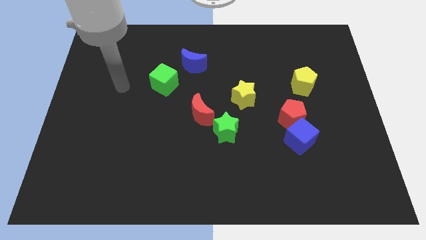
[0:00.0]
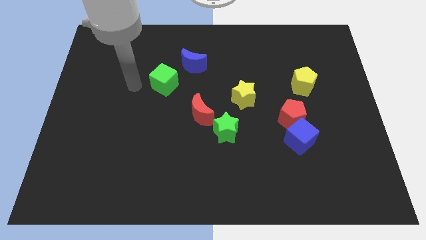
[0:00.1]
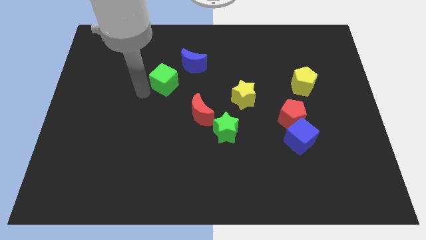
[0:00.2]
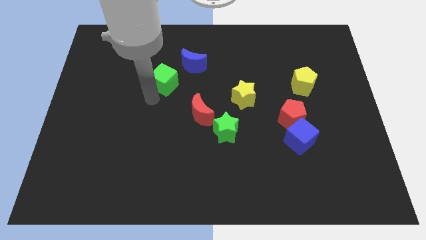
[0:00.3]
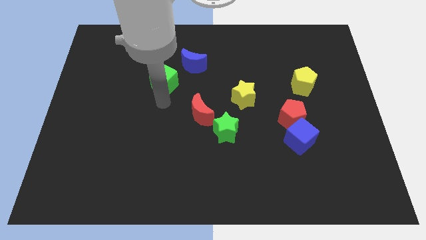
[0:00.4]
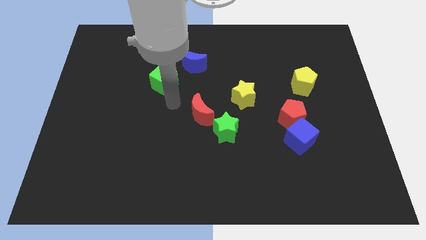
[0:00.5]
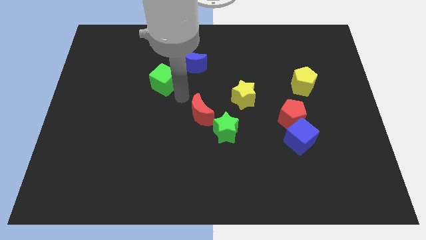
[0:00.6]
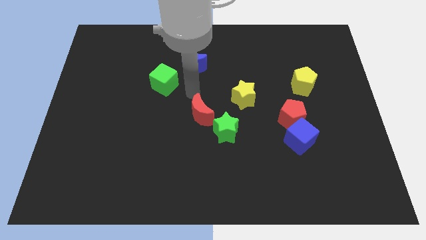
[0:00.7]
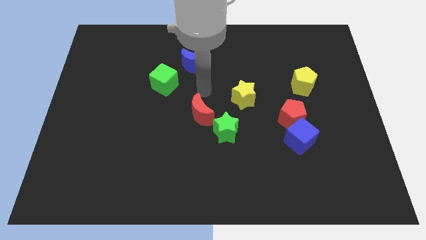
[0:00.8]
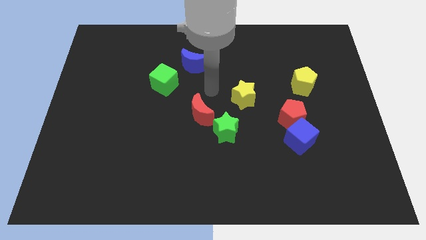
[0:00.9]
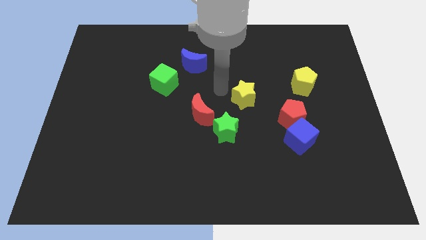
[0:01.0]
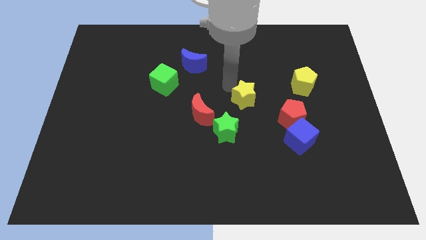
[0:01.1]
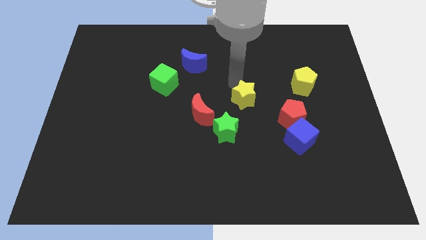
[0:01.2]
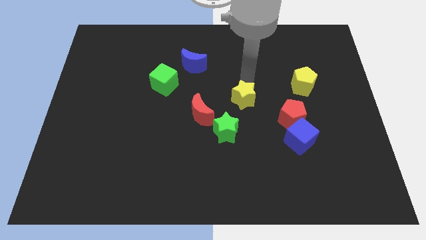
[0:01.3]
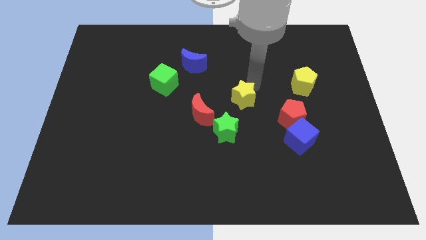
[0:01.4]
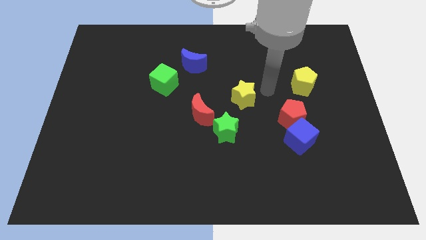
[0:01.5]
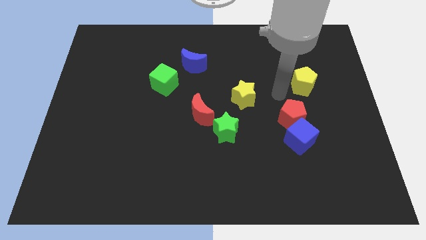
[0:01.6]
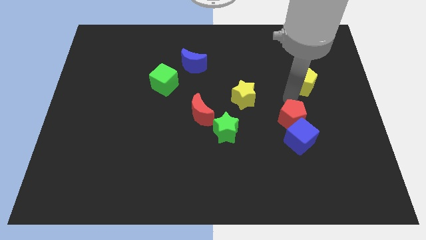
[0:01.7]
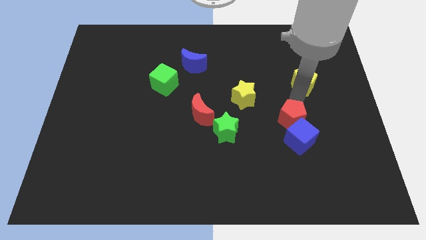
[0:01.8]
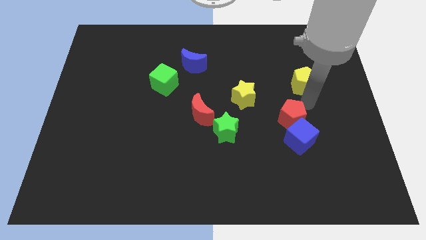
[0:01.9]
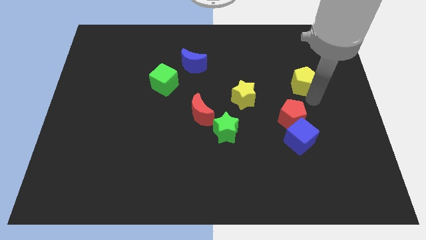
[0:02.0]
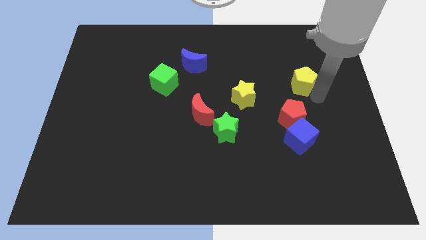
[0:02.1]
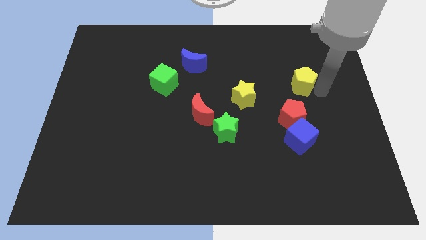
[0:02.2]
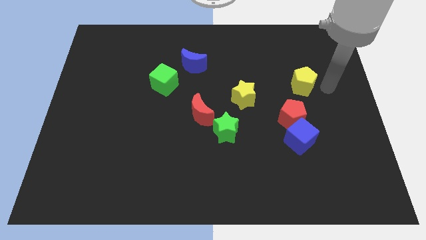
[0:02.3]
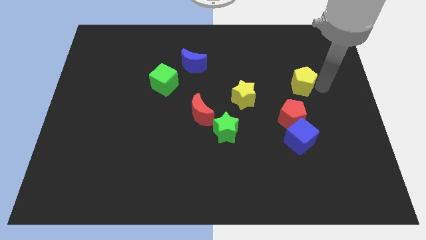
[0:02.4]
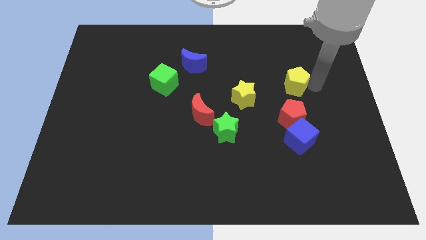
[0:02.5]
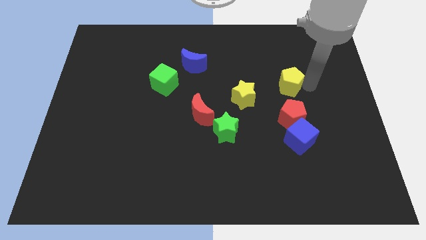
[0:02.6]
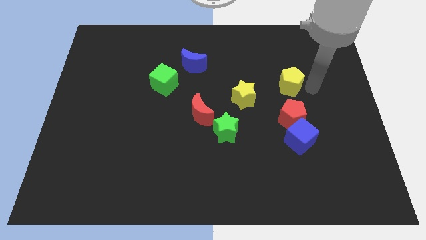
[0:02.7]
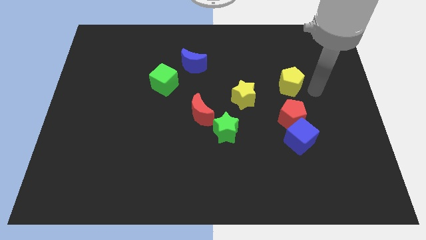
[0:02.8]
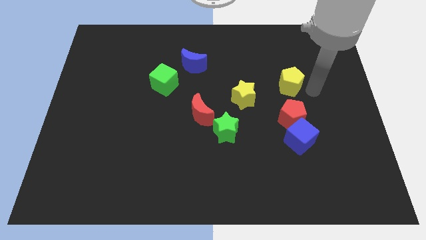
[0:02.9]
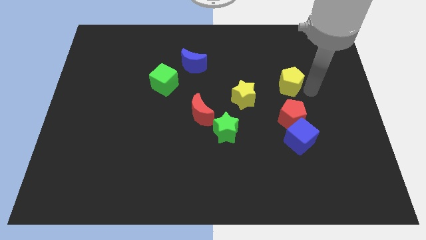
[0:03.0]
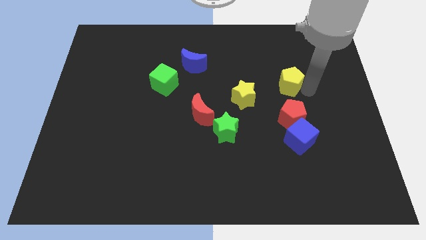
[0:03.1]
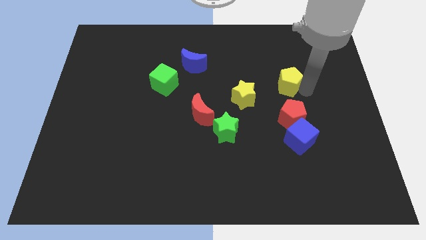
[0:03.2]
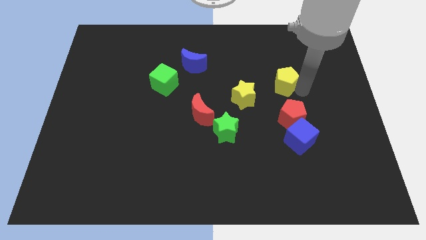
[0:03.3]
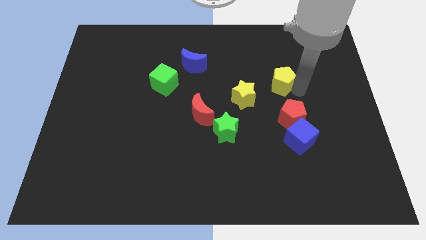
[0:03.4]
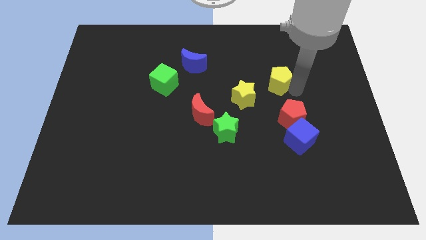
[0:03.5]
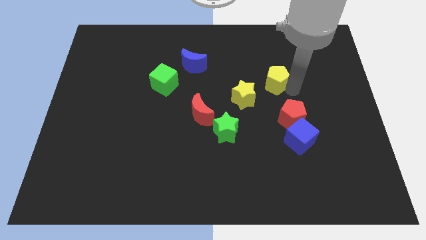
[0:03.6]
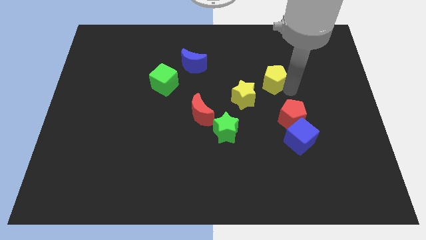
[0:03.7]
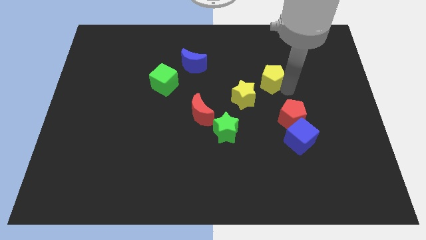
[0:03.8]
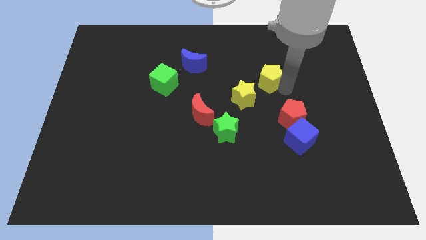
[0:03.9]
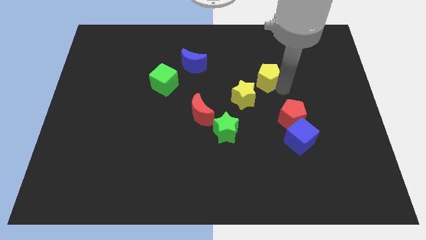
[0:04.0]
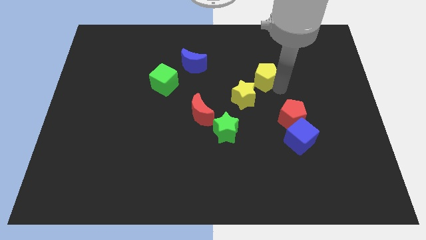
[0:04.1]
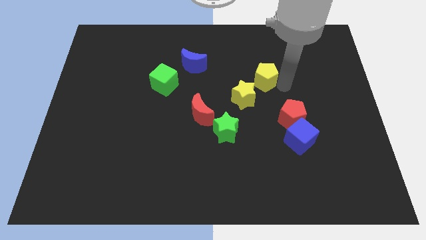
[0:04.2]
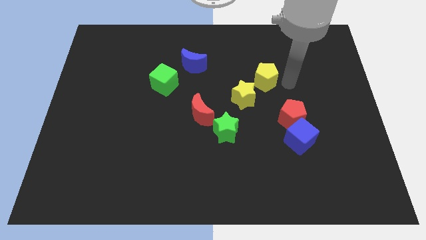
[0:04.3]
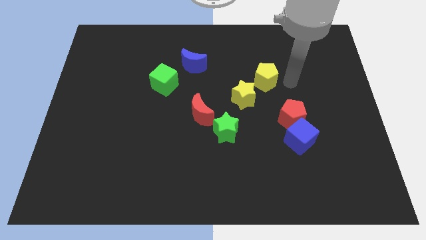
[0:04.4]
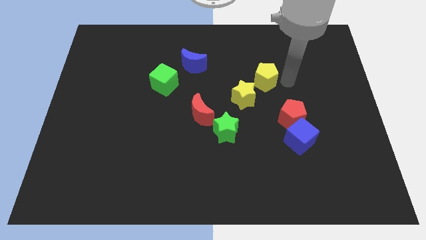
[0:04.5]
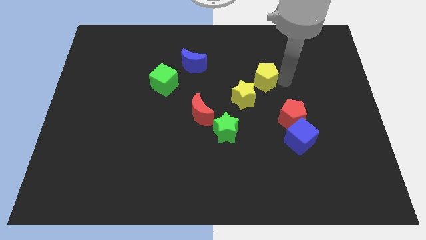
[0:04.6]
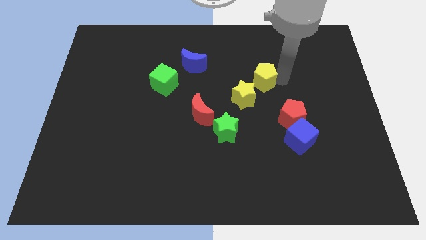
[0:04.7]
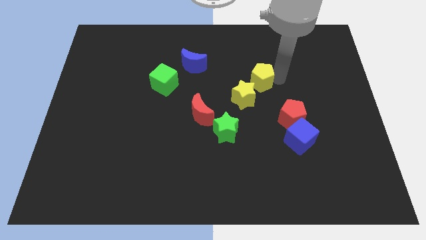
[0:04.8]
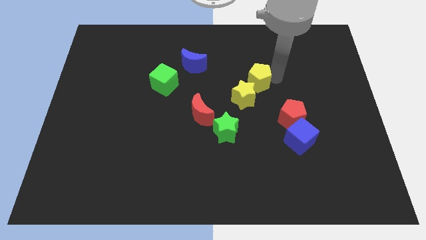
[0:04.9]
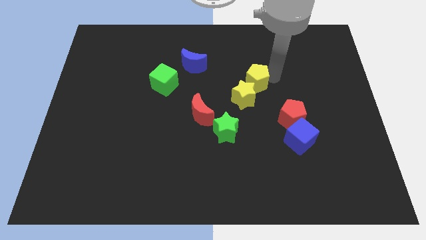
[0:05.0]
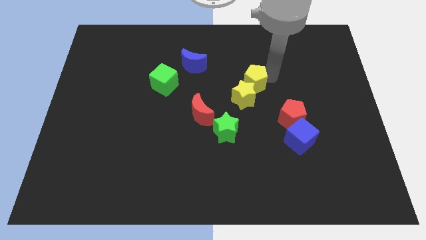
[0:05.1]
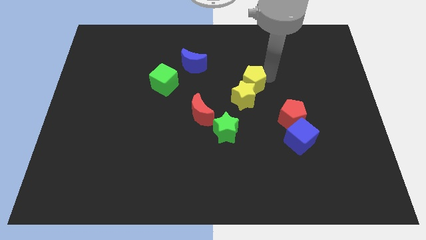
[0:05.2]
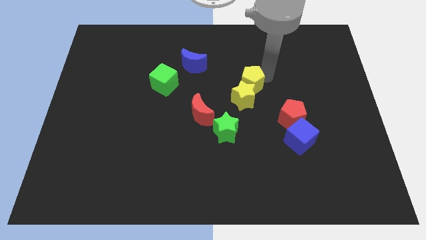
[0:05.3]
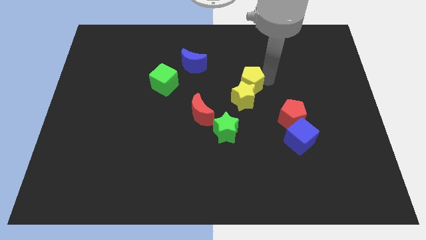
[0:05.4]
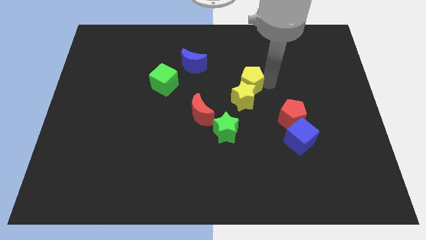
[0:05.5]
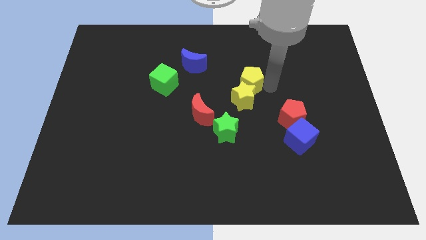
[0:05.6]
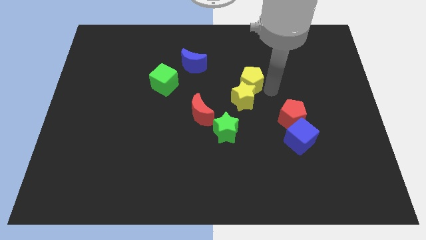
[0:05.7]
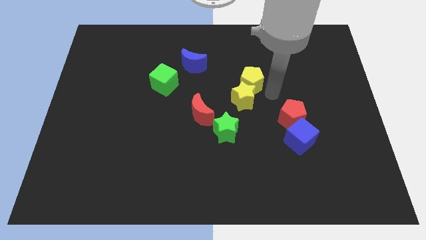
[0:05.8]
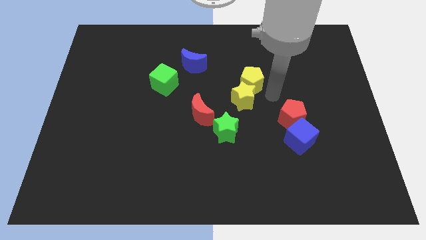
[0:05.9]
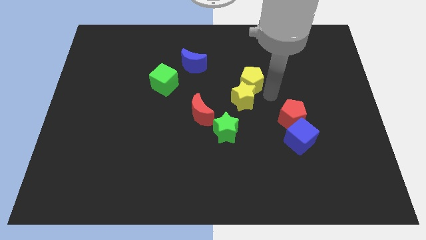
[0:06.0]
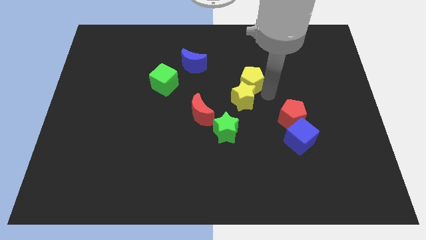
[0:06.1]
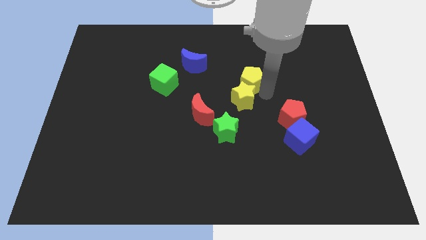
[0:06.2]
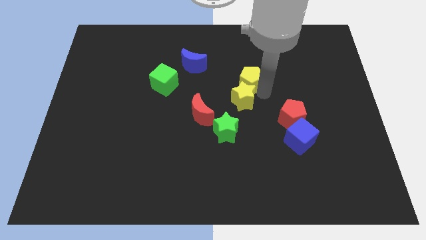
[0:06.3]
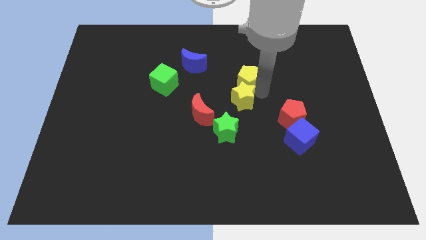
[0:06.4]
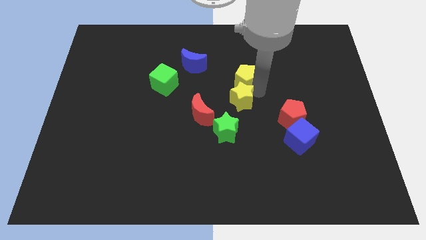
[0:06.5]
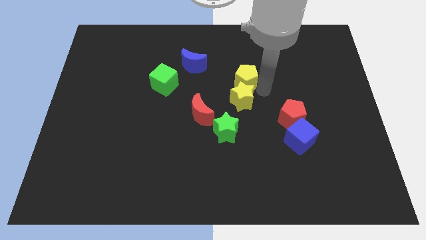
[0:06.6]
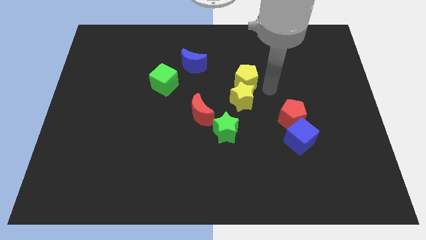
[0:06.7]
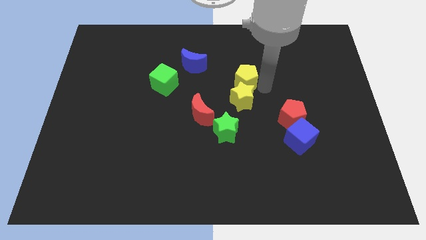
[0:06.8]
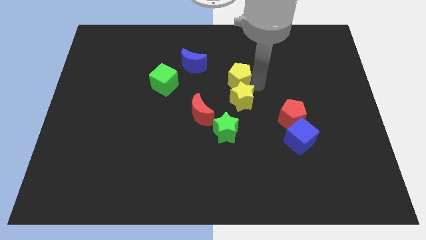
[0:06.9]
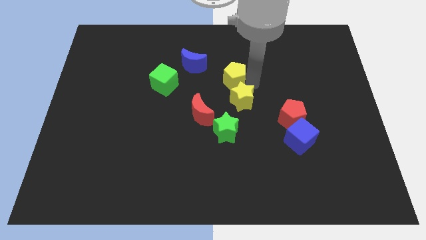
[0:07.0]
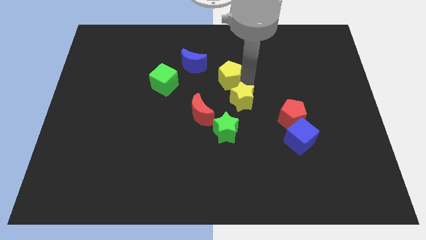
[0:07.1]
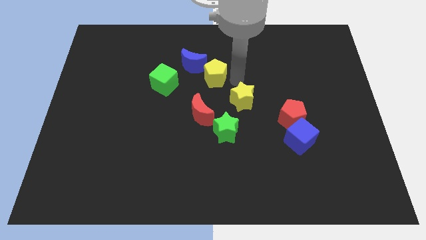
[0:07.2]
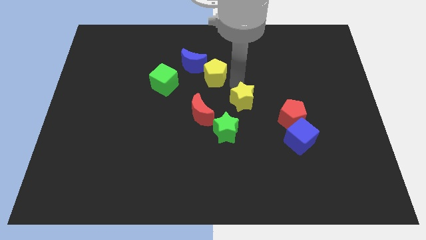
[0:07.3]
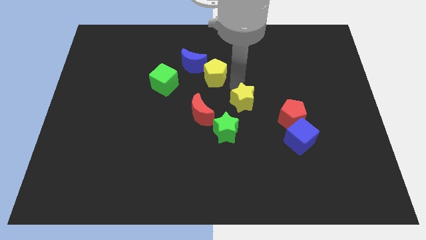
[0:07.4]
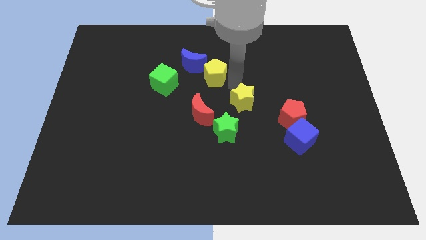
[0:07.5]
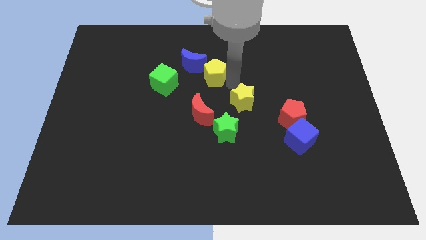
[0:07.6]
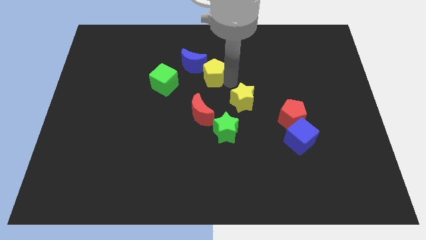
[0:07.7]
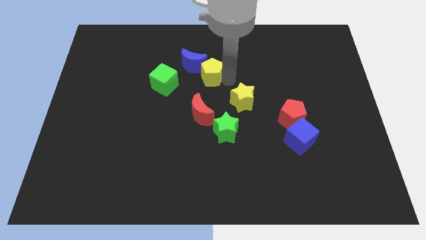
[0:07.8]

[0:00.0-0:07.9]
move the yellow pentagon towards the blue moon
